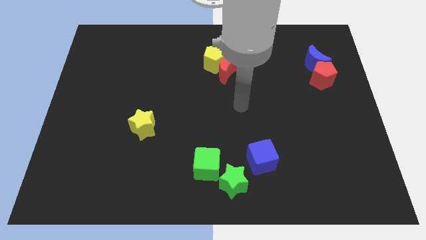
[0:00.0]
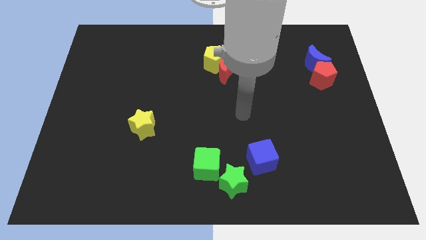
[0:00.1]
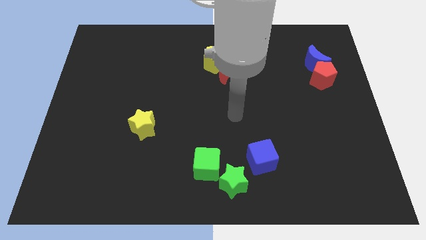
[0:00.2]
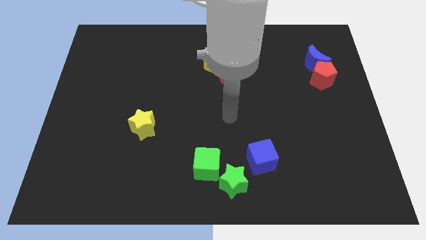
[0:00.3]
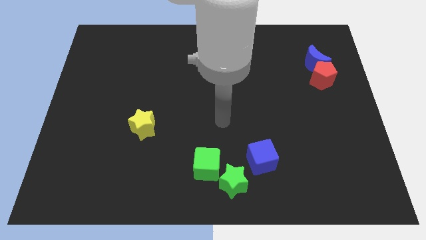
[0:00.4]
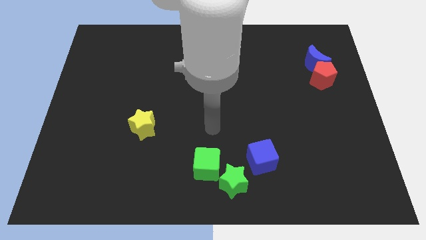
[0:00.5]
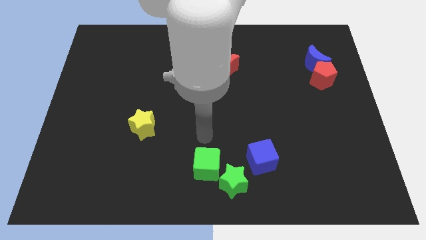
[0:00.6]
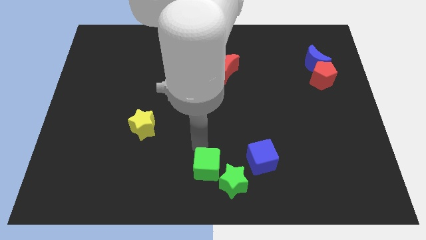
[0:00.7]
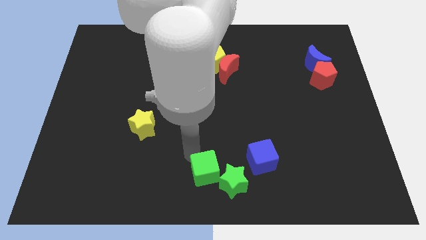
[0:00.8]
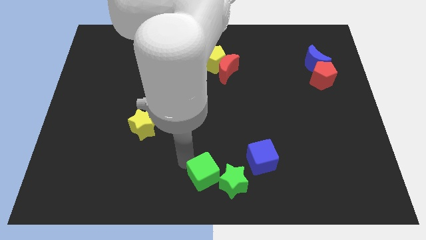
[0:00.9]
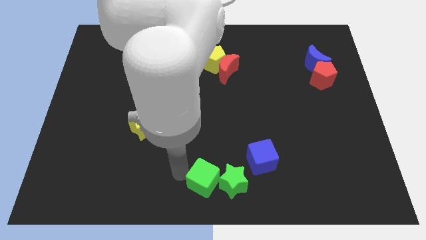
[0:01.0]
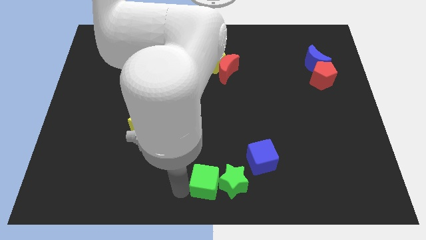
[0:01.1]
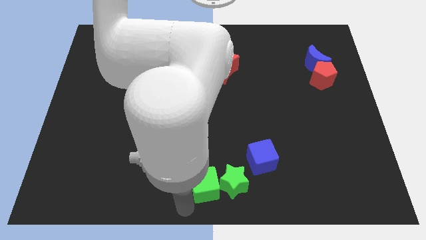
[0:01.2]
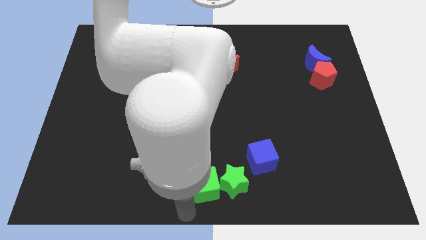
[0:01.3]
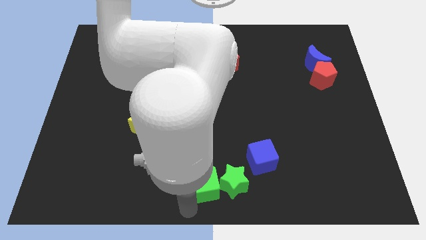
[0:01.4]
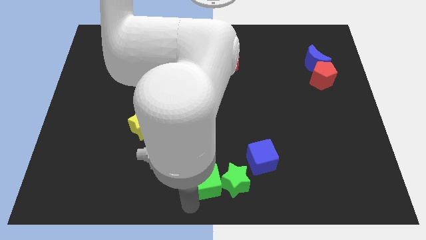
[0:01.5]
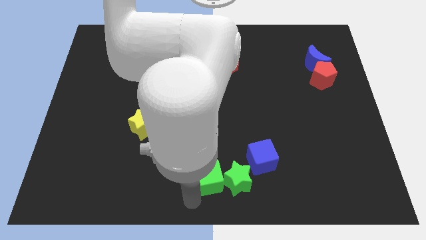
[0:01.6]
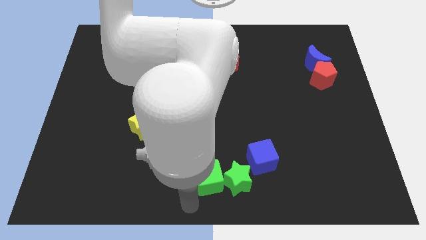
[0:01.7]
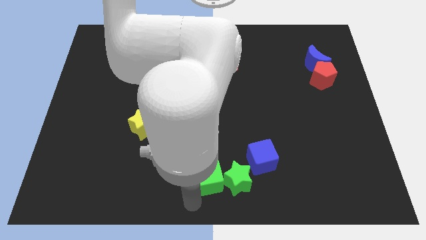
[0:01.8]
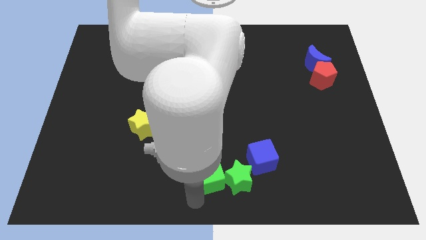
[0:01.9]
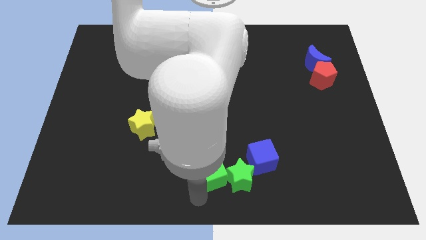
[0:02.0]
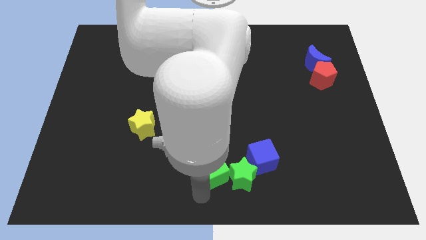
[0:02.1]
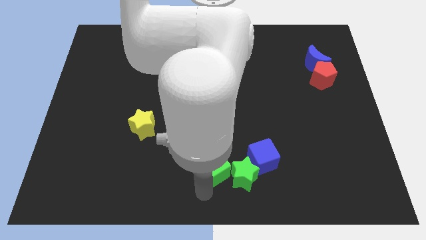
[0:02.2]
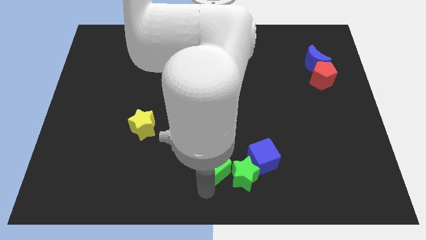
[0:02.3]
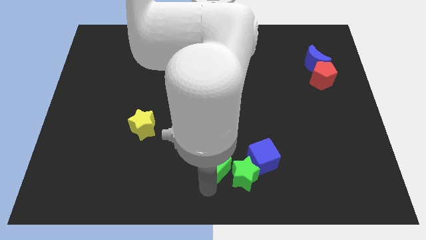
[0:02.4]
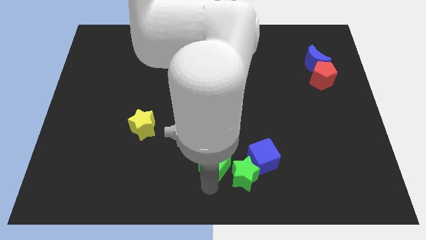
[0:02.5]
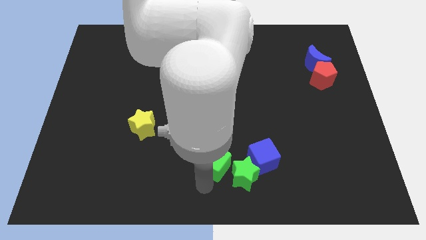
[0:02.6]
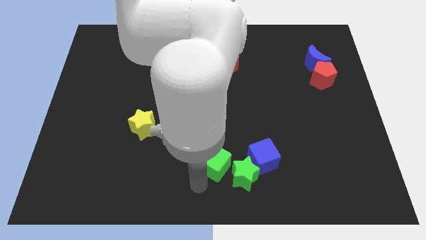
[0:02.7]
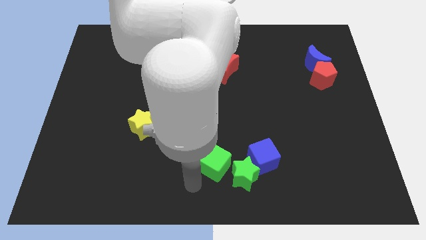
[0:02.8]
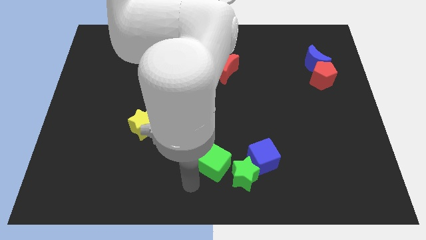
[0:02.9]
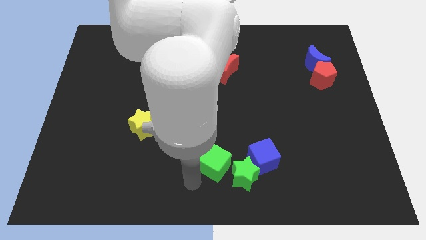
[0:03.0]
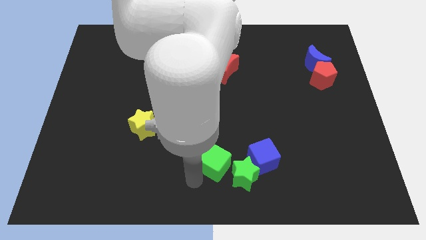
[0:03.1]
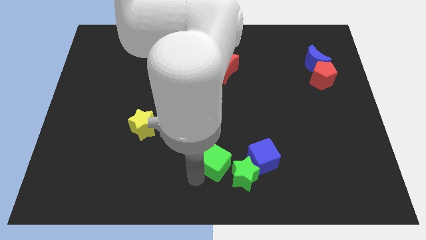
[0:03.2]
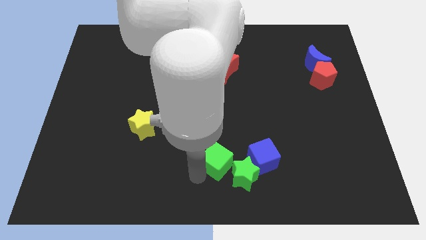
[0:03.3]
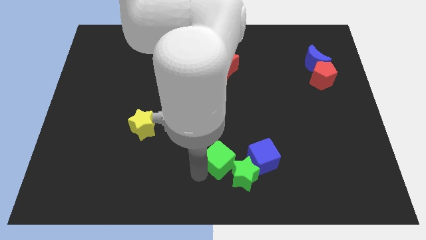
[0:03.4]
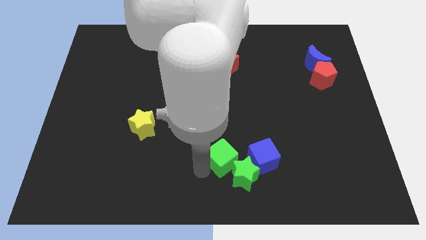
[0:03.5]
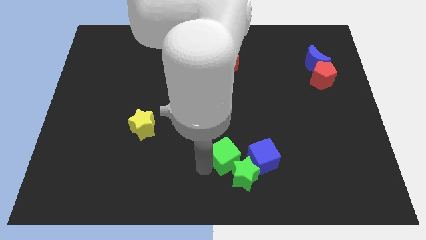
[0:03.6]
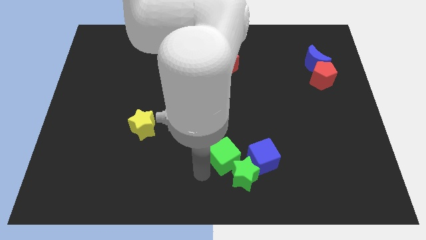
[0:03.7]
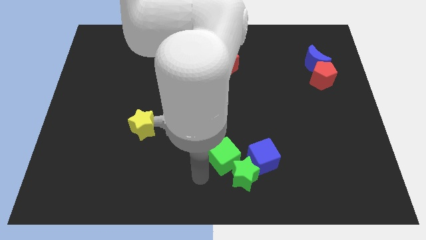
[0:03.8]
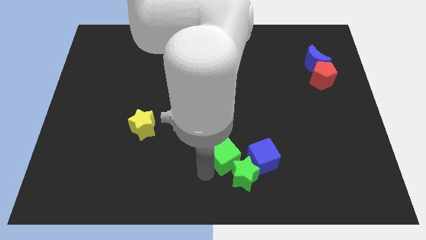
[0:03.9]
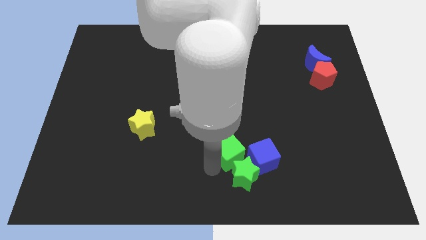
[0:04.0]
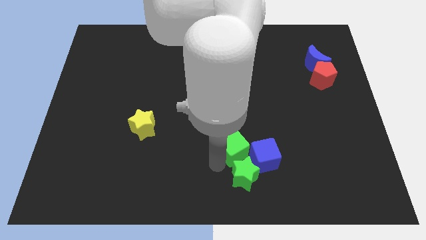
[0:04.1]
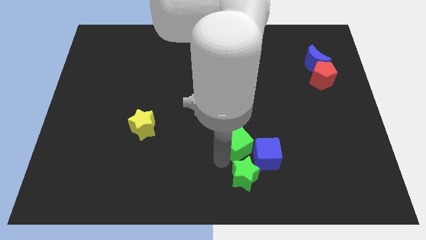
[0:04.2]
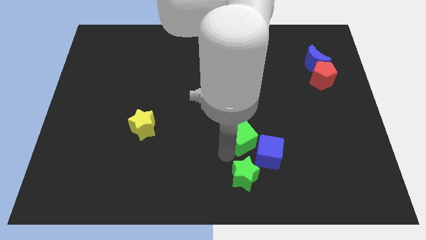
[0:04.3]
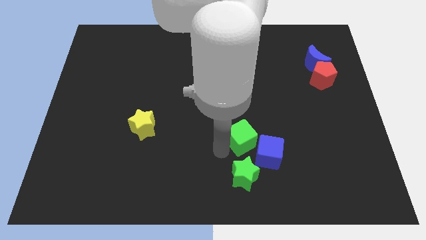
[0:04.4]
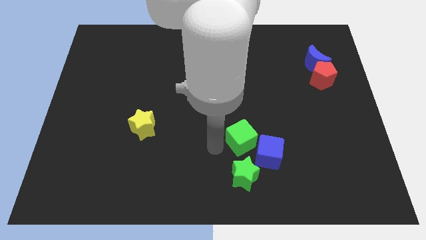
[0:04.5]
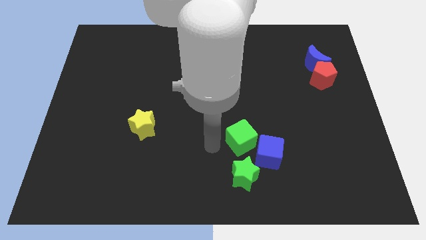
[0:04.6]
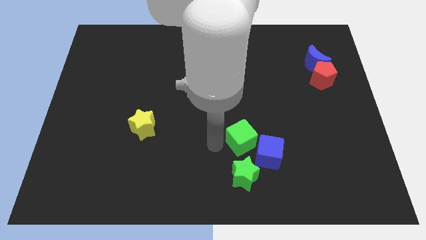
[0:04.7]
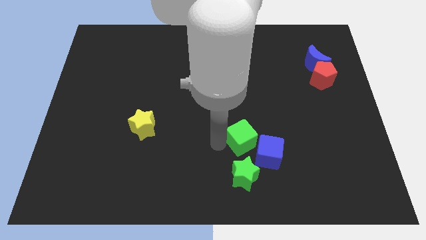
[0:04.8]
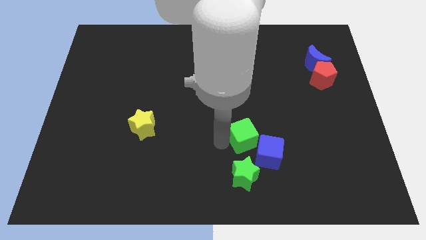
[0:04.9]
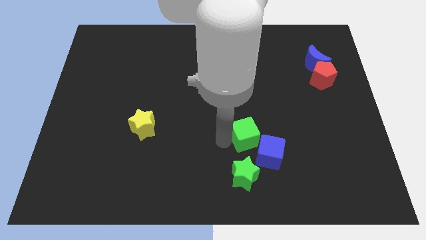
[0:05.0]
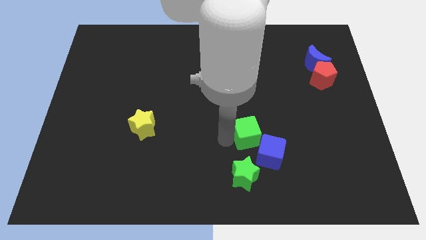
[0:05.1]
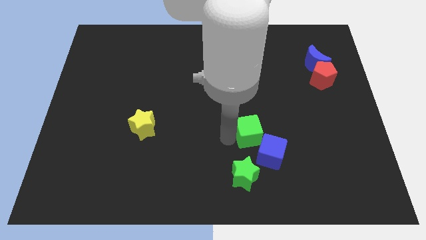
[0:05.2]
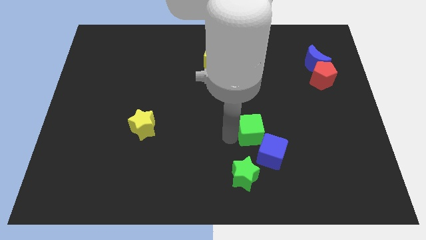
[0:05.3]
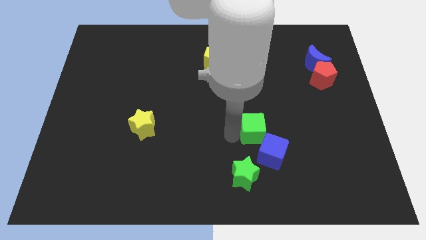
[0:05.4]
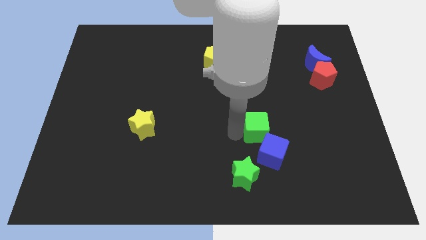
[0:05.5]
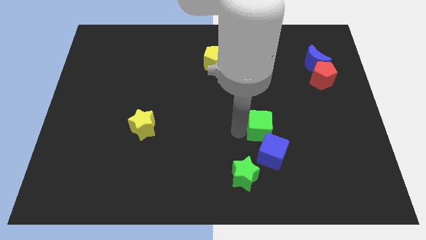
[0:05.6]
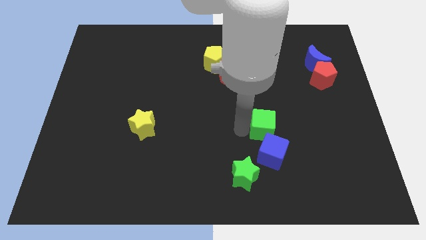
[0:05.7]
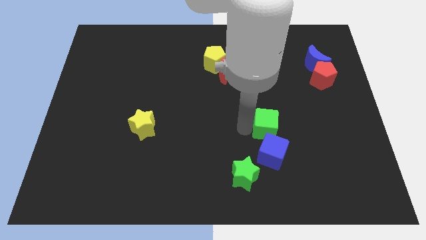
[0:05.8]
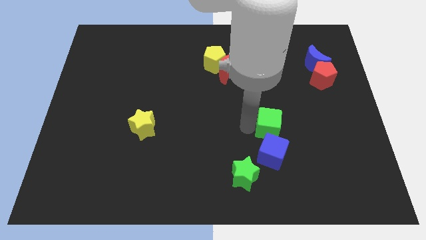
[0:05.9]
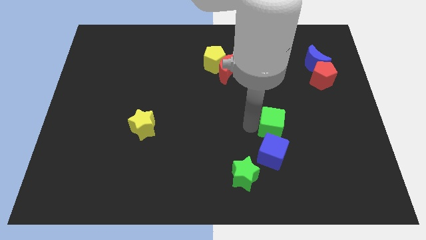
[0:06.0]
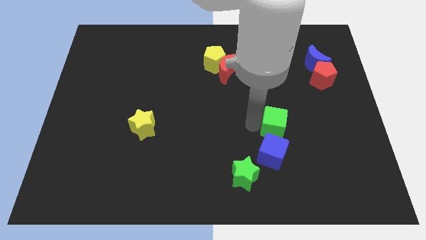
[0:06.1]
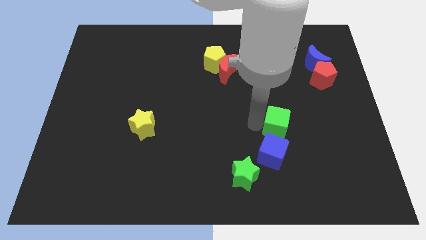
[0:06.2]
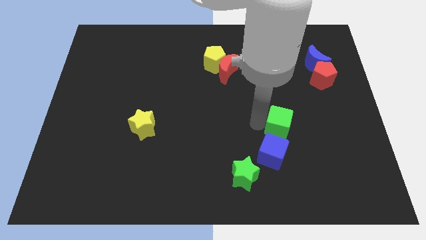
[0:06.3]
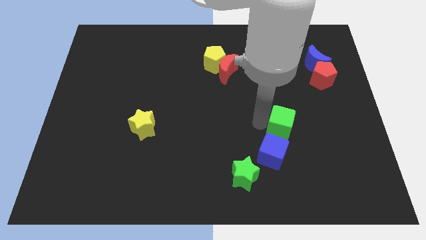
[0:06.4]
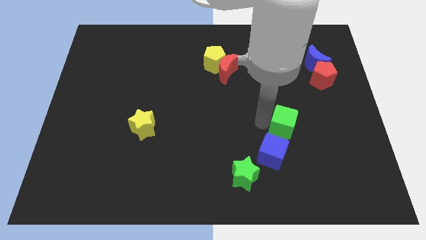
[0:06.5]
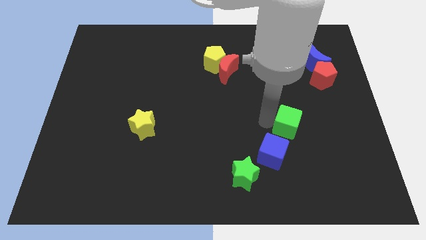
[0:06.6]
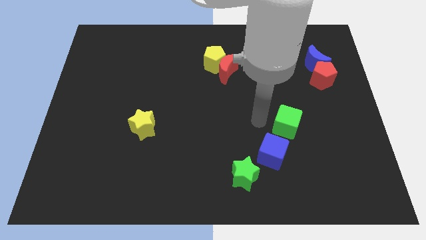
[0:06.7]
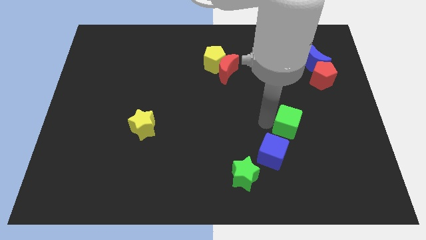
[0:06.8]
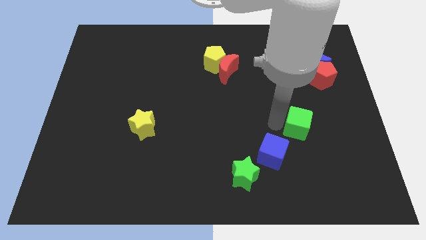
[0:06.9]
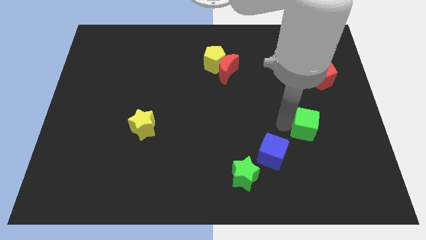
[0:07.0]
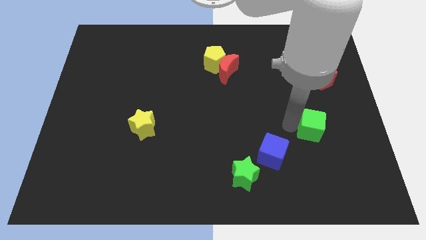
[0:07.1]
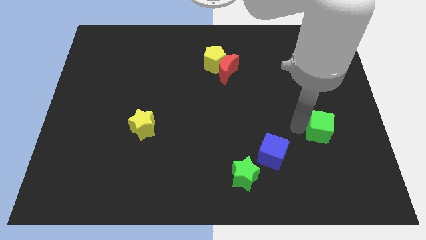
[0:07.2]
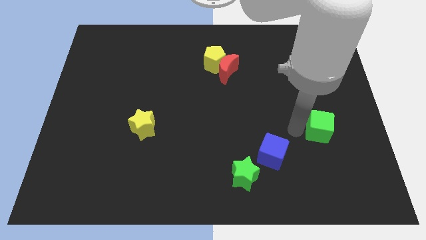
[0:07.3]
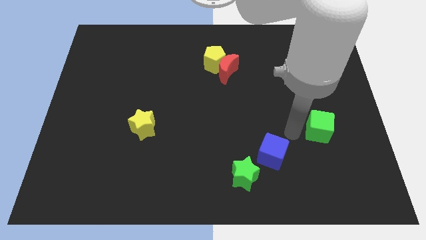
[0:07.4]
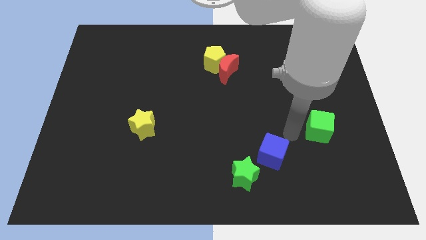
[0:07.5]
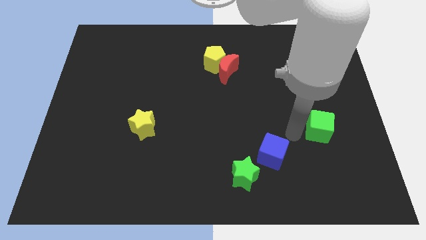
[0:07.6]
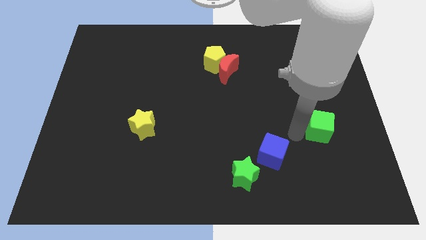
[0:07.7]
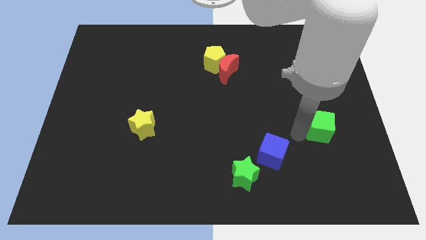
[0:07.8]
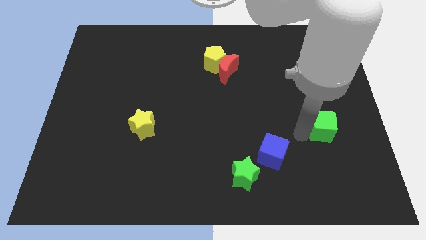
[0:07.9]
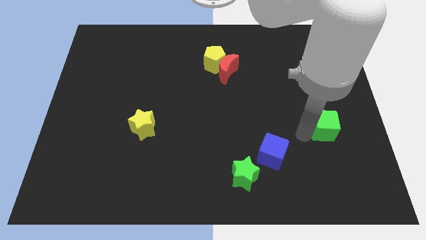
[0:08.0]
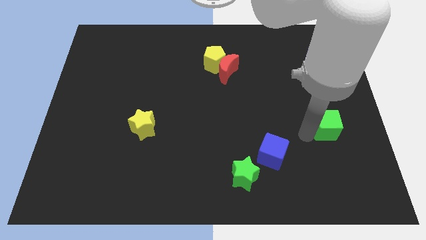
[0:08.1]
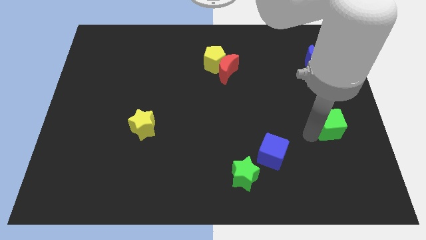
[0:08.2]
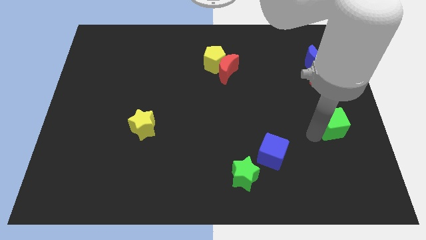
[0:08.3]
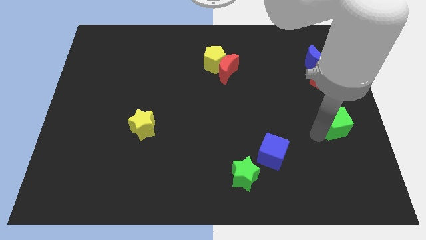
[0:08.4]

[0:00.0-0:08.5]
move the green cube to the right side
